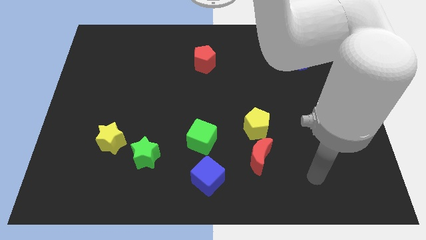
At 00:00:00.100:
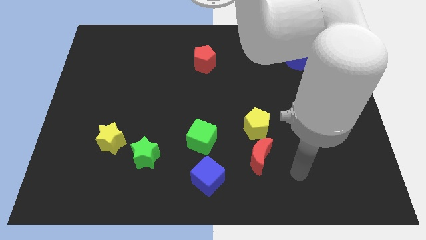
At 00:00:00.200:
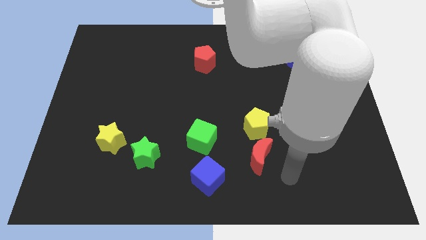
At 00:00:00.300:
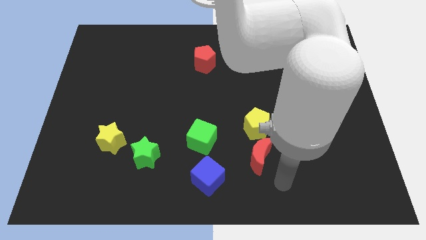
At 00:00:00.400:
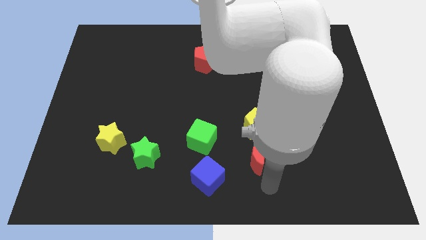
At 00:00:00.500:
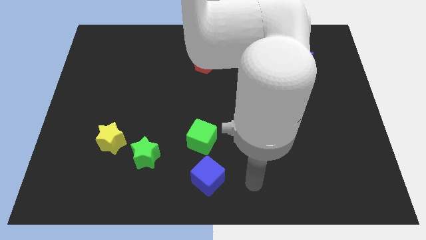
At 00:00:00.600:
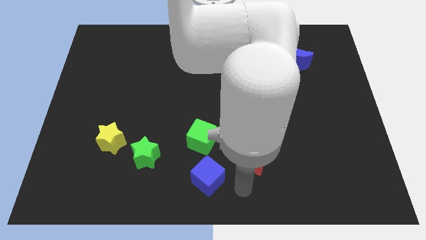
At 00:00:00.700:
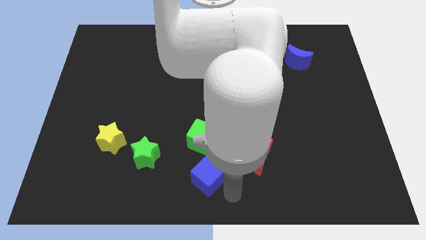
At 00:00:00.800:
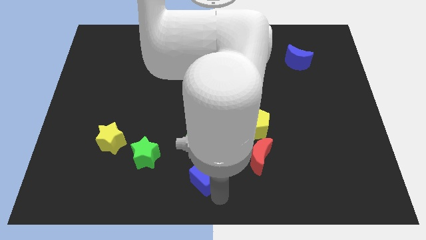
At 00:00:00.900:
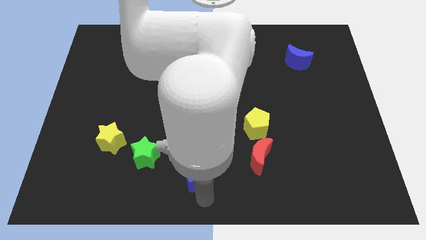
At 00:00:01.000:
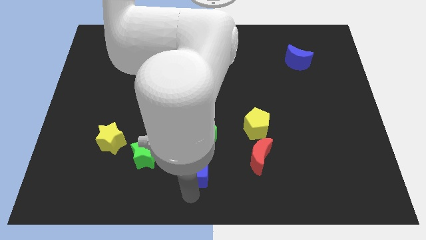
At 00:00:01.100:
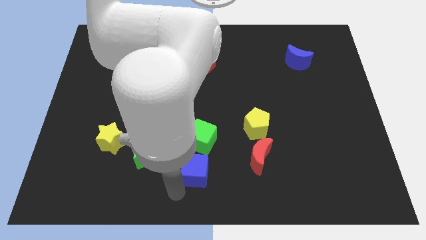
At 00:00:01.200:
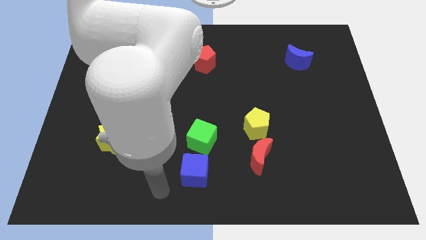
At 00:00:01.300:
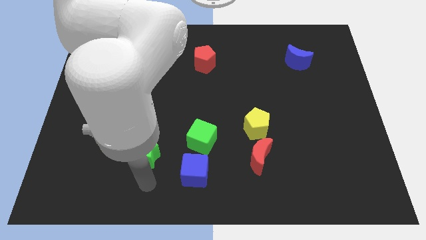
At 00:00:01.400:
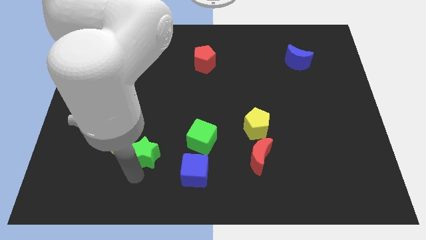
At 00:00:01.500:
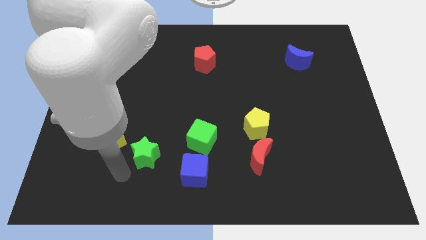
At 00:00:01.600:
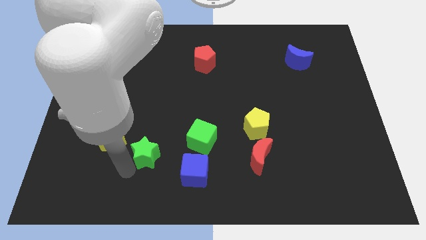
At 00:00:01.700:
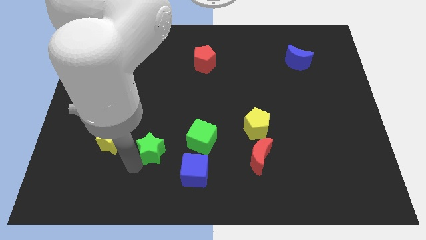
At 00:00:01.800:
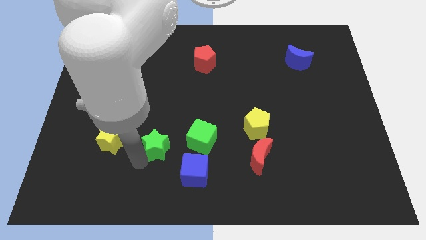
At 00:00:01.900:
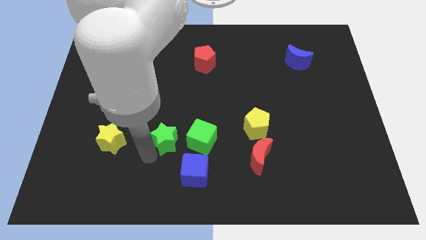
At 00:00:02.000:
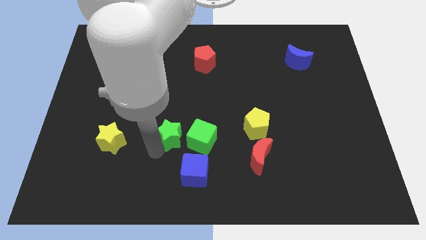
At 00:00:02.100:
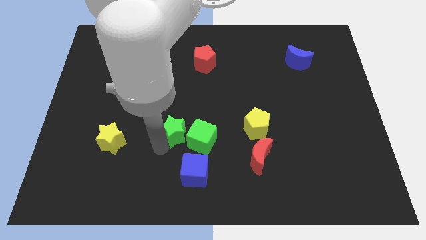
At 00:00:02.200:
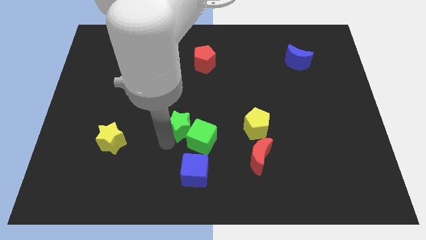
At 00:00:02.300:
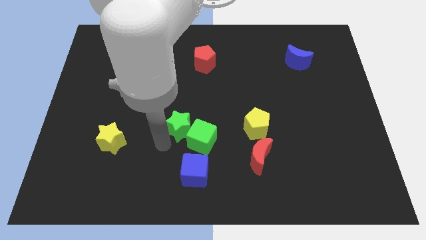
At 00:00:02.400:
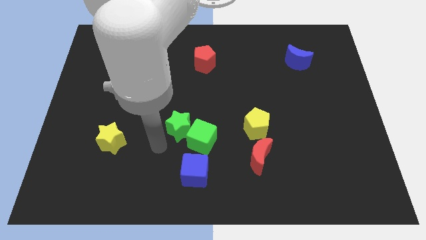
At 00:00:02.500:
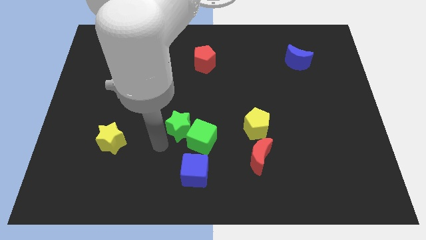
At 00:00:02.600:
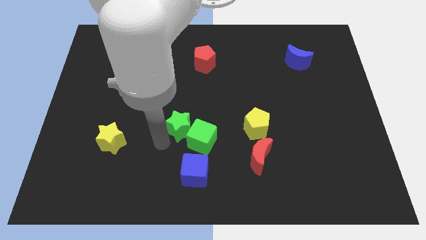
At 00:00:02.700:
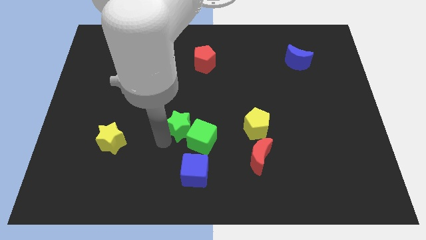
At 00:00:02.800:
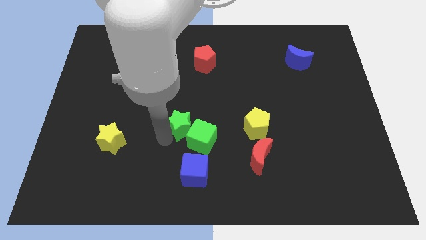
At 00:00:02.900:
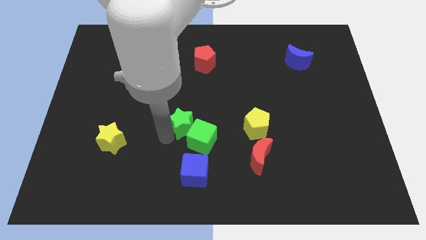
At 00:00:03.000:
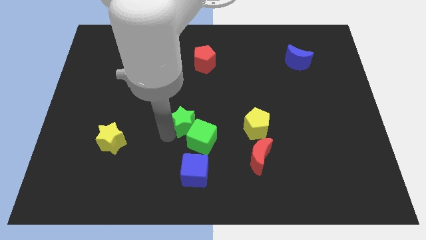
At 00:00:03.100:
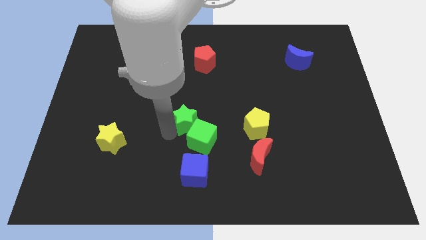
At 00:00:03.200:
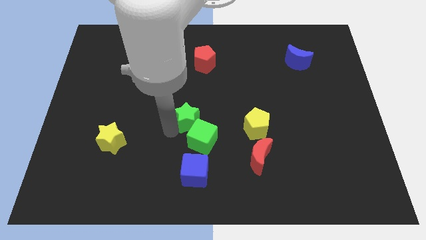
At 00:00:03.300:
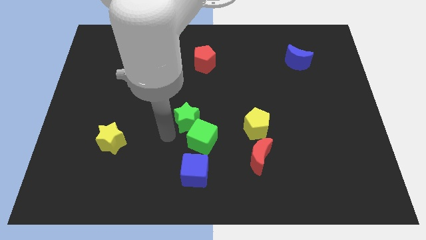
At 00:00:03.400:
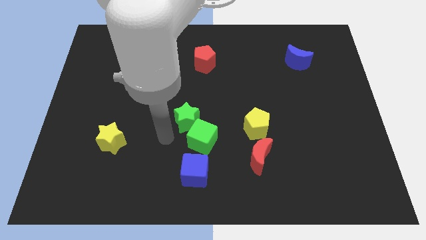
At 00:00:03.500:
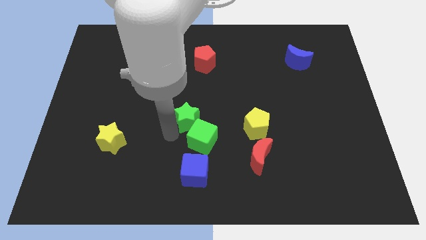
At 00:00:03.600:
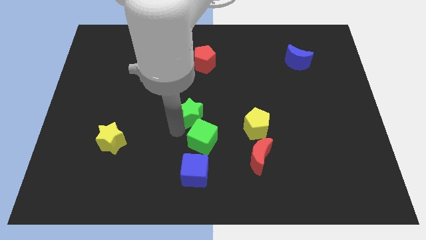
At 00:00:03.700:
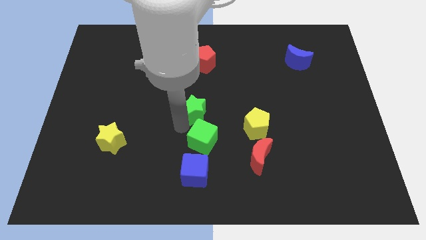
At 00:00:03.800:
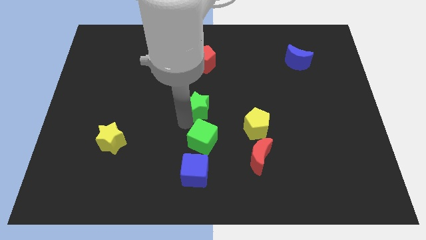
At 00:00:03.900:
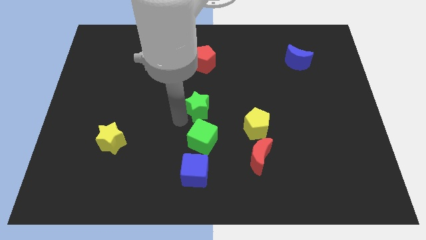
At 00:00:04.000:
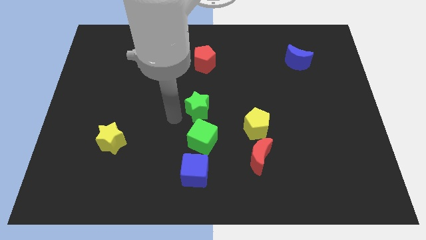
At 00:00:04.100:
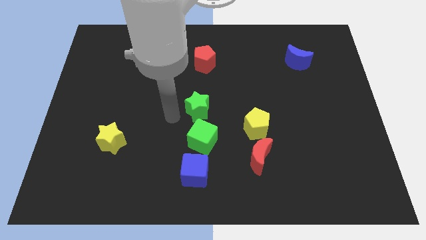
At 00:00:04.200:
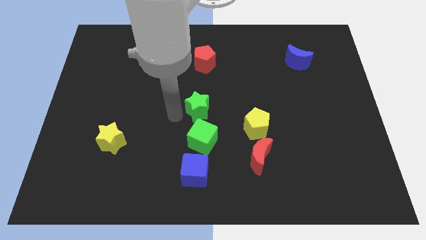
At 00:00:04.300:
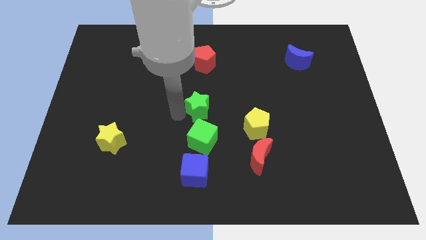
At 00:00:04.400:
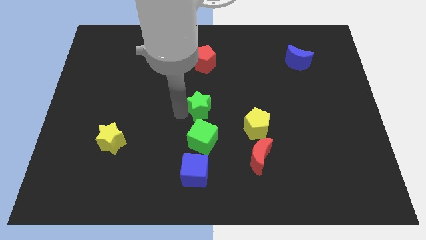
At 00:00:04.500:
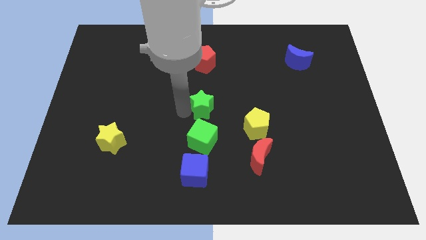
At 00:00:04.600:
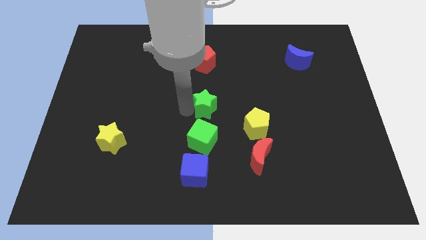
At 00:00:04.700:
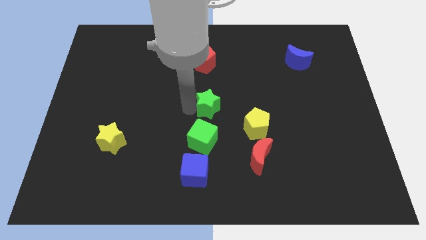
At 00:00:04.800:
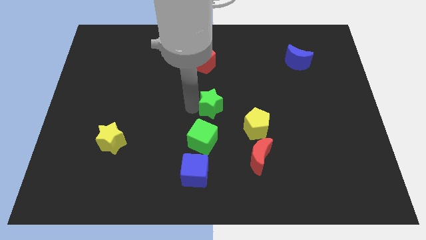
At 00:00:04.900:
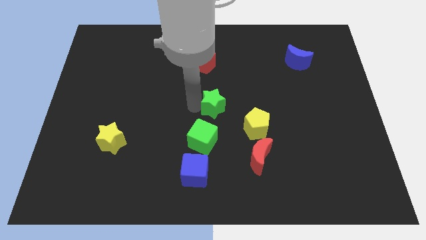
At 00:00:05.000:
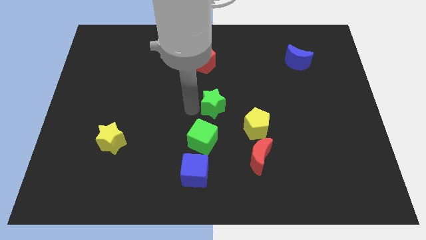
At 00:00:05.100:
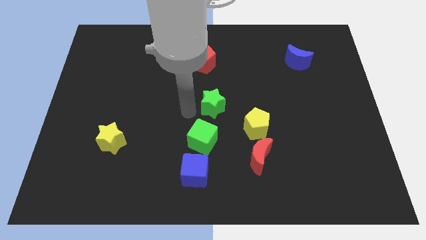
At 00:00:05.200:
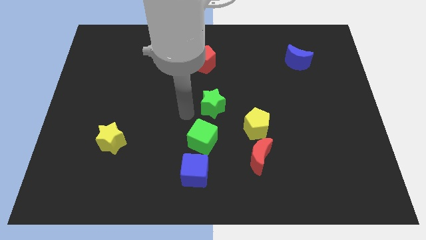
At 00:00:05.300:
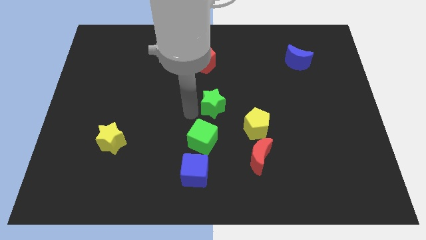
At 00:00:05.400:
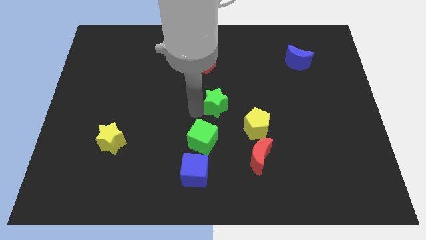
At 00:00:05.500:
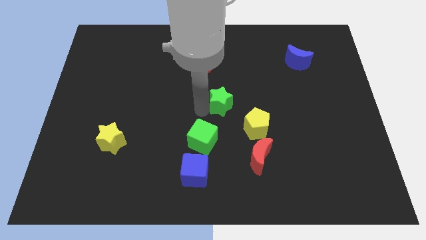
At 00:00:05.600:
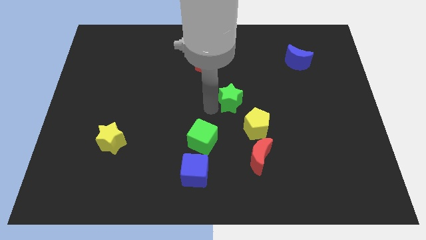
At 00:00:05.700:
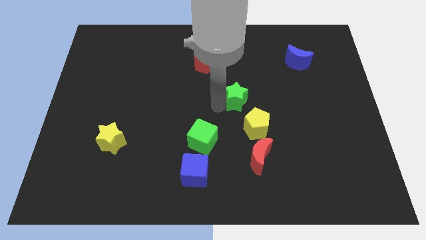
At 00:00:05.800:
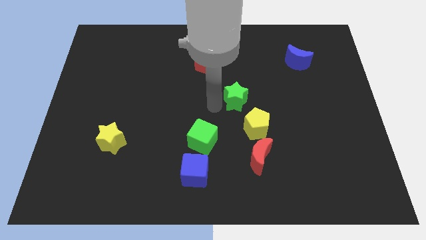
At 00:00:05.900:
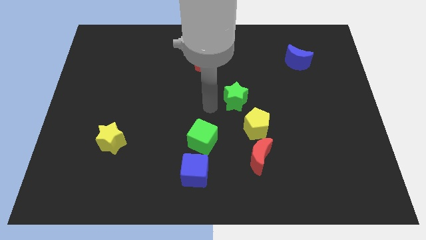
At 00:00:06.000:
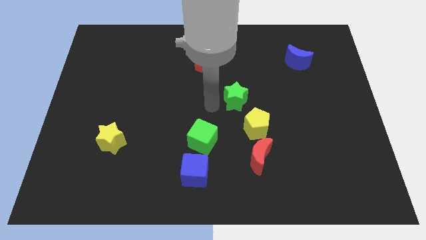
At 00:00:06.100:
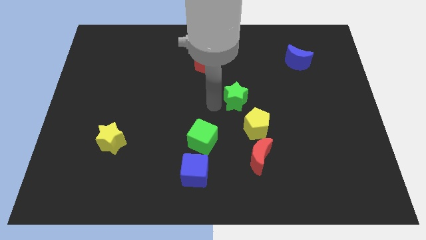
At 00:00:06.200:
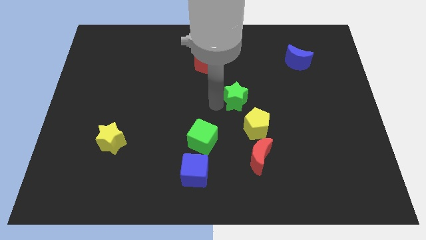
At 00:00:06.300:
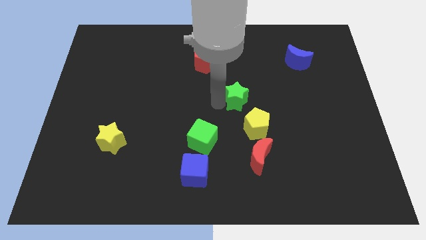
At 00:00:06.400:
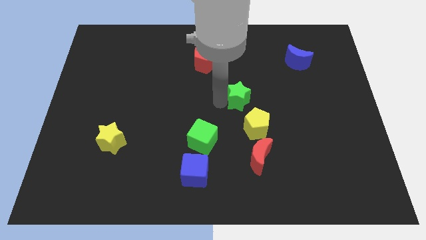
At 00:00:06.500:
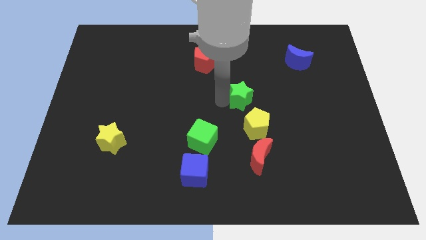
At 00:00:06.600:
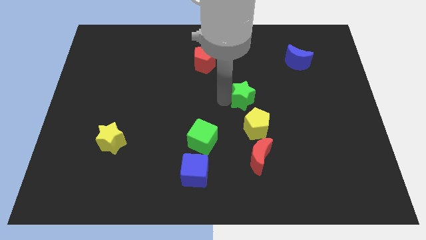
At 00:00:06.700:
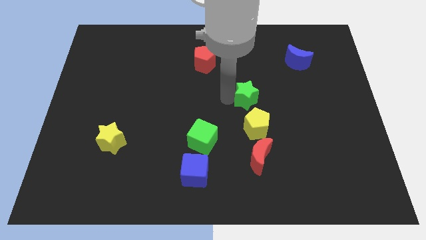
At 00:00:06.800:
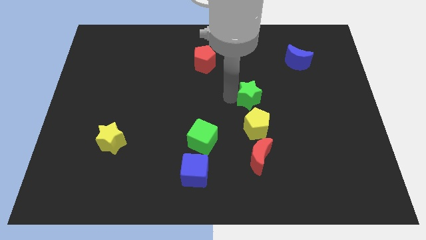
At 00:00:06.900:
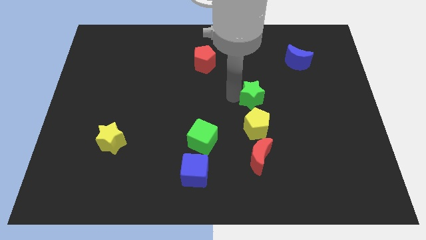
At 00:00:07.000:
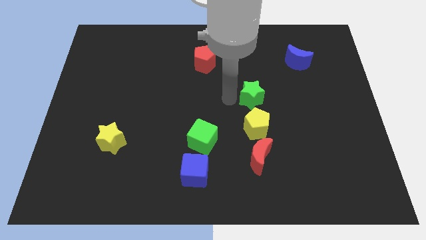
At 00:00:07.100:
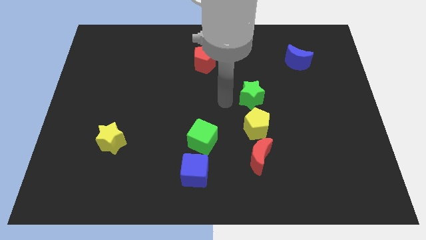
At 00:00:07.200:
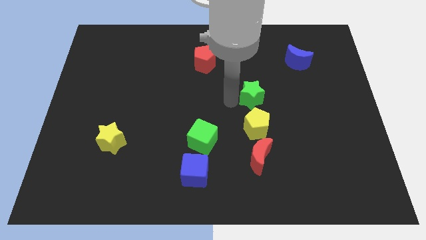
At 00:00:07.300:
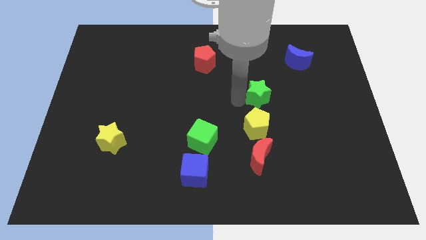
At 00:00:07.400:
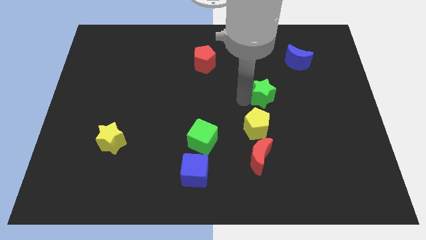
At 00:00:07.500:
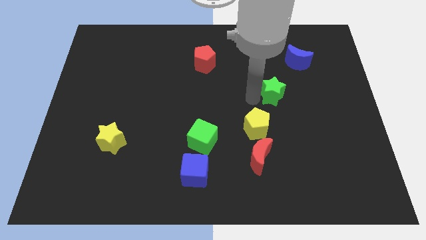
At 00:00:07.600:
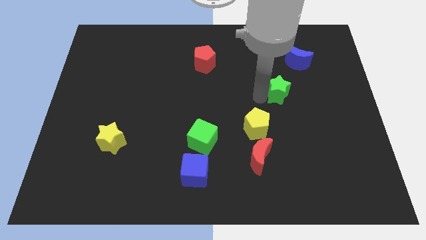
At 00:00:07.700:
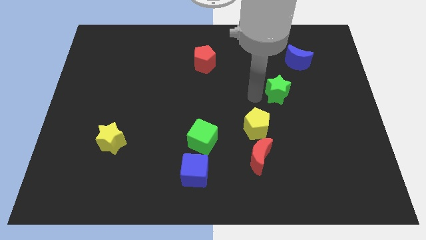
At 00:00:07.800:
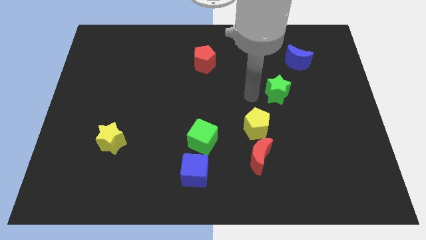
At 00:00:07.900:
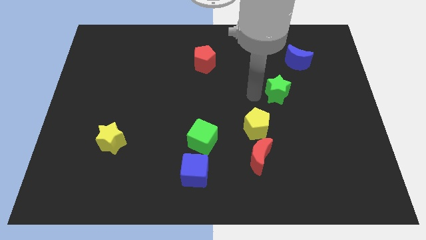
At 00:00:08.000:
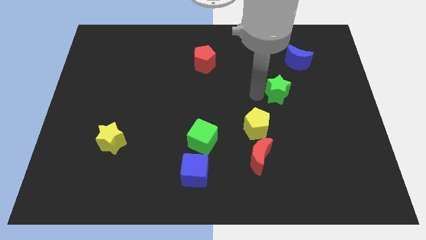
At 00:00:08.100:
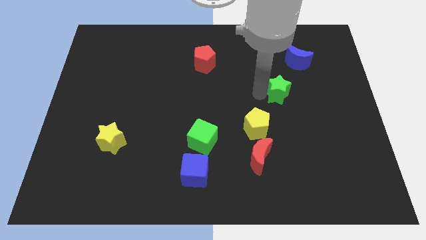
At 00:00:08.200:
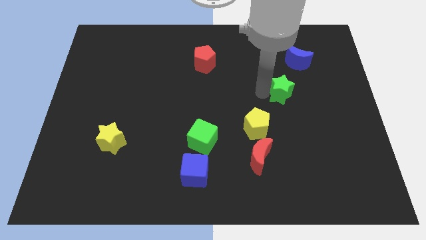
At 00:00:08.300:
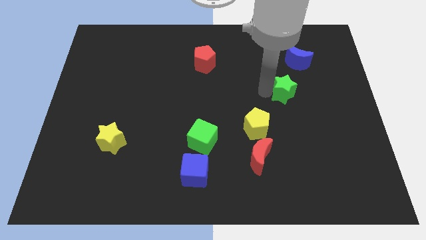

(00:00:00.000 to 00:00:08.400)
slide the green star below the blue moon
